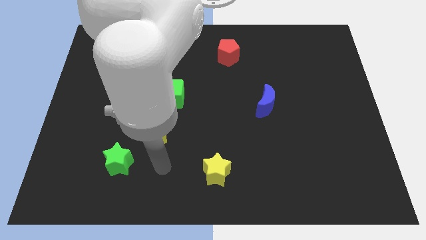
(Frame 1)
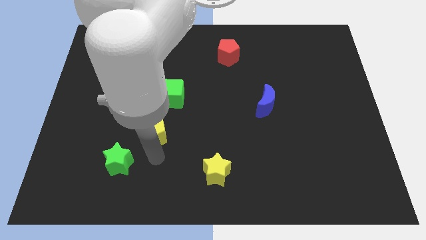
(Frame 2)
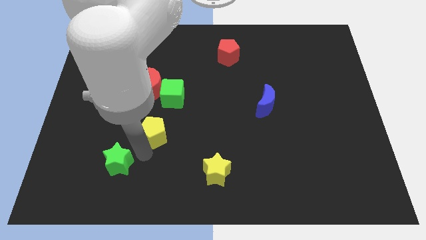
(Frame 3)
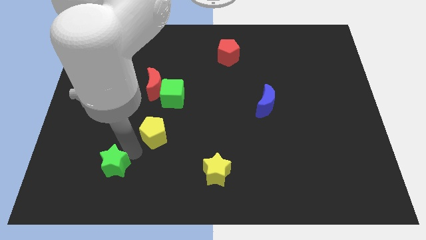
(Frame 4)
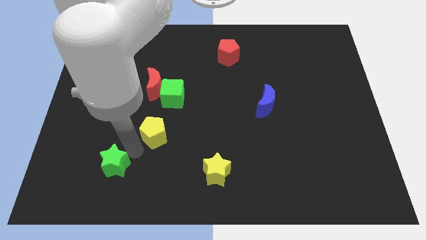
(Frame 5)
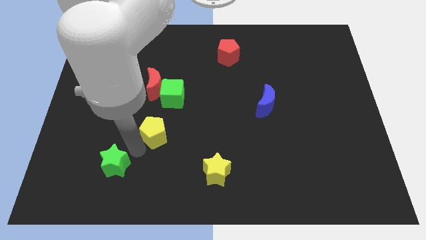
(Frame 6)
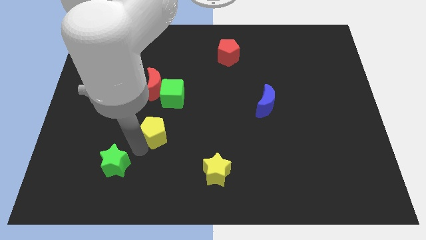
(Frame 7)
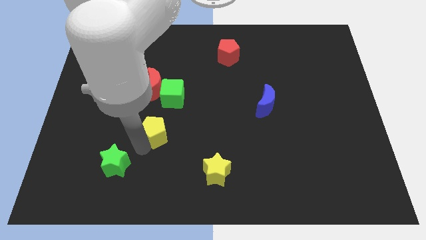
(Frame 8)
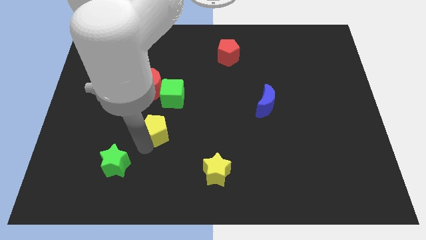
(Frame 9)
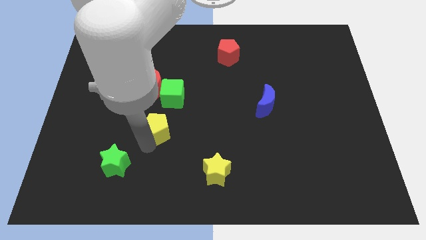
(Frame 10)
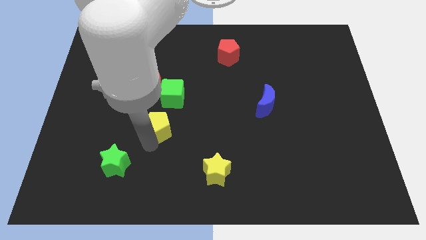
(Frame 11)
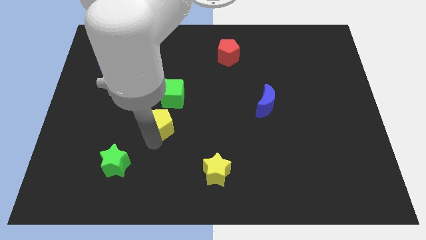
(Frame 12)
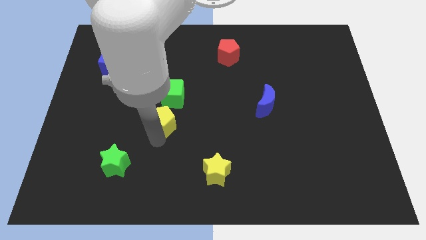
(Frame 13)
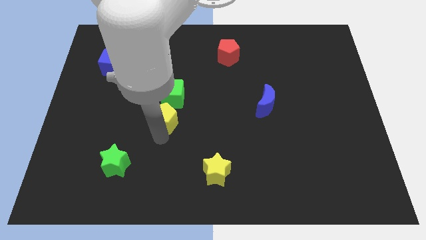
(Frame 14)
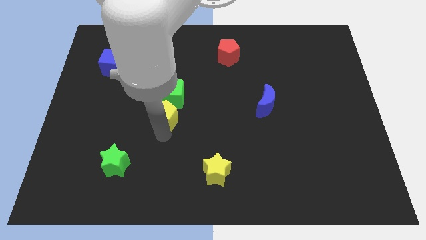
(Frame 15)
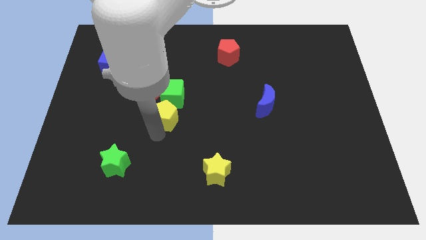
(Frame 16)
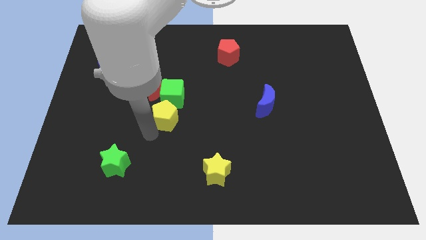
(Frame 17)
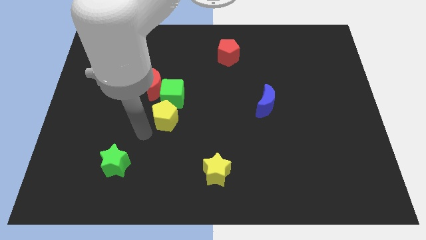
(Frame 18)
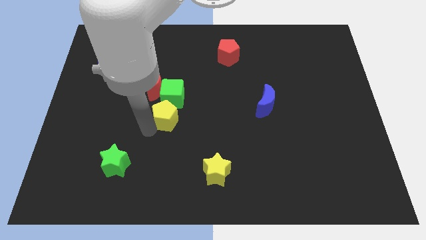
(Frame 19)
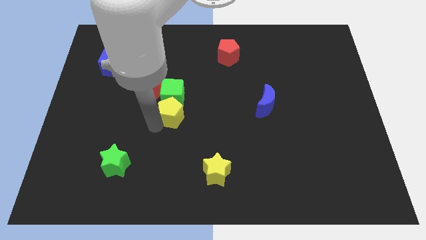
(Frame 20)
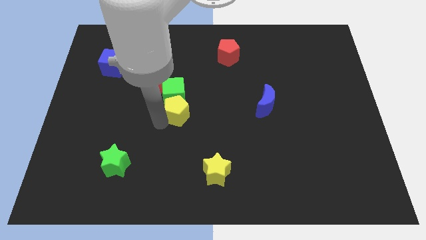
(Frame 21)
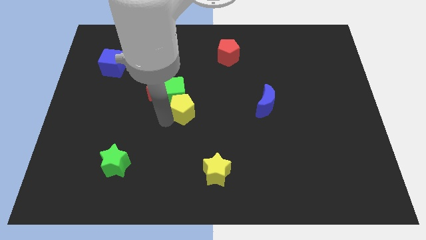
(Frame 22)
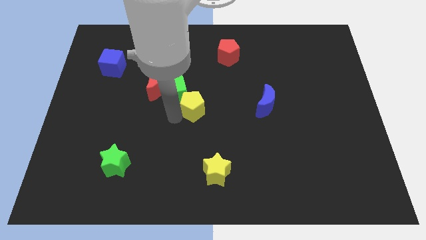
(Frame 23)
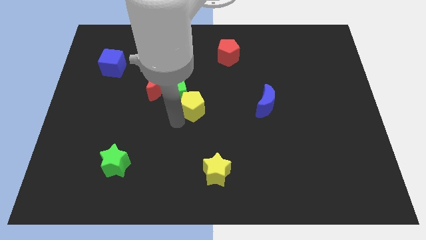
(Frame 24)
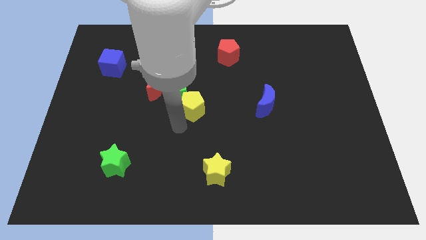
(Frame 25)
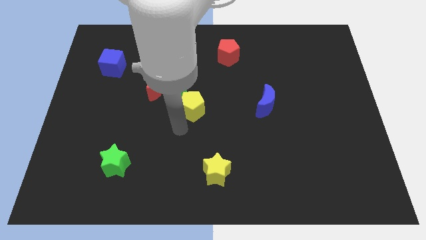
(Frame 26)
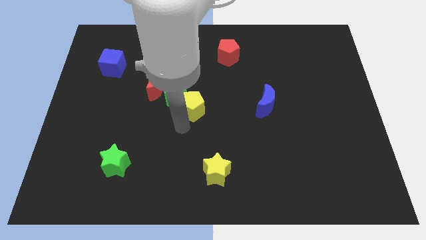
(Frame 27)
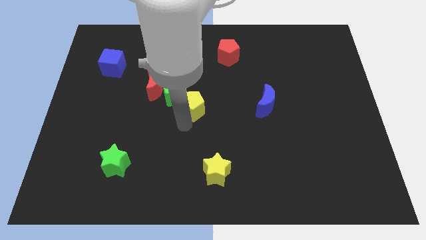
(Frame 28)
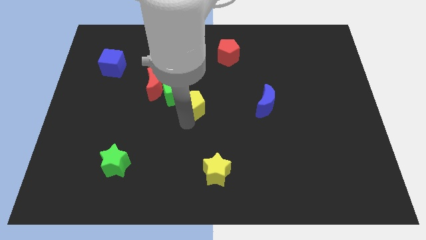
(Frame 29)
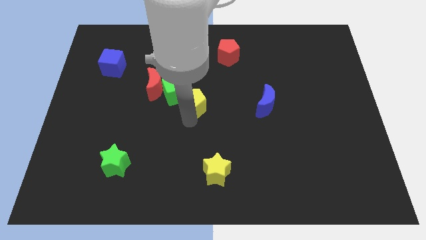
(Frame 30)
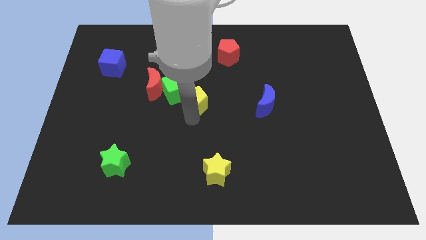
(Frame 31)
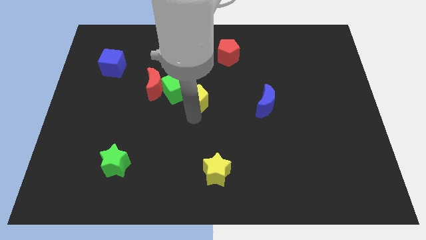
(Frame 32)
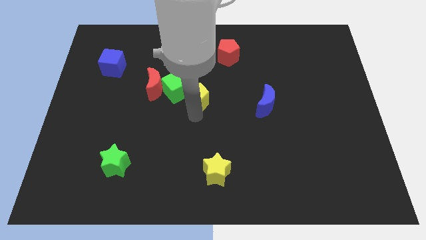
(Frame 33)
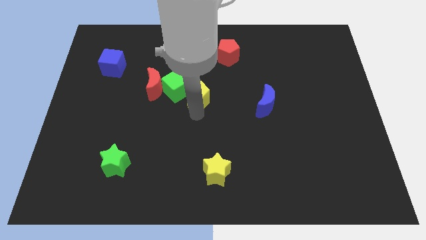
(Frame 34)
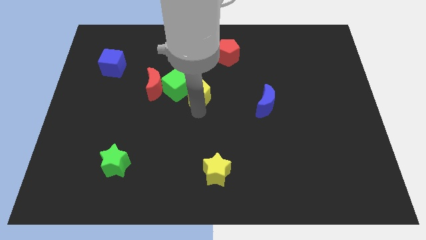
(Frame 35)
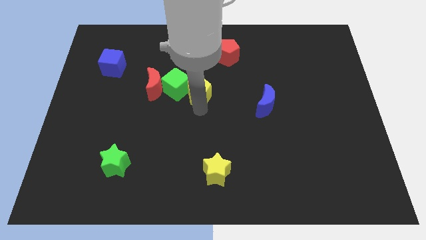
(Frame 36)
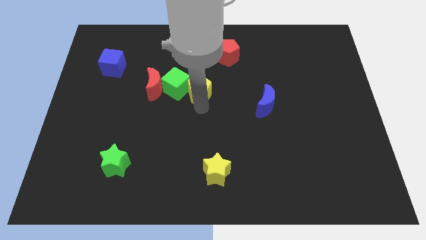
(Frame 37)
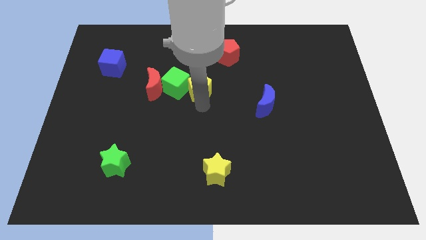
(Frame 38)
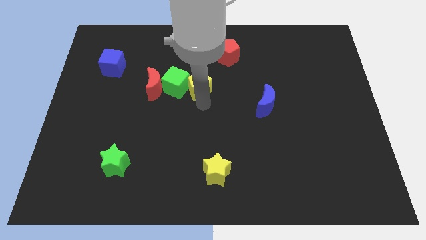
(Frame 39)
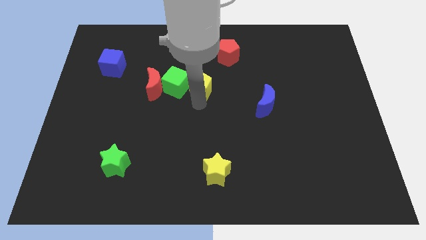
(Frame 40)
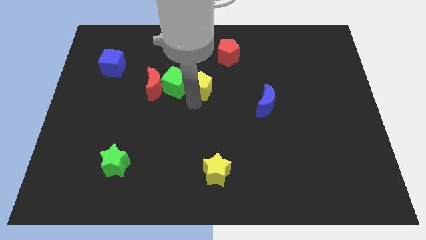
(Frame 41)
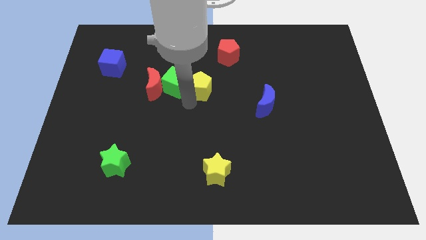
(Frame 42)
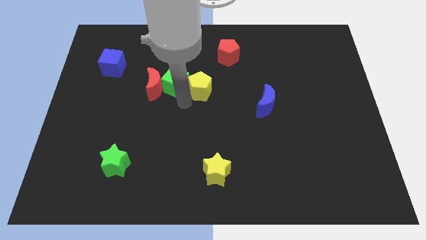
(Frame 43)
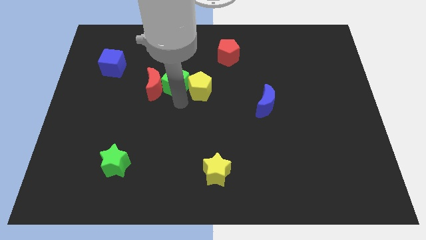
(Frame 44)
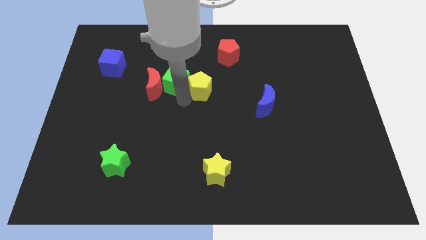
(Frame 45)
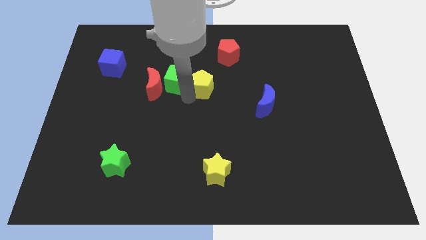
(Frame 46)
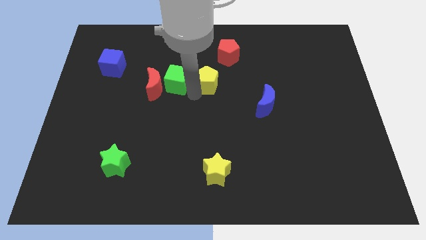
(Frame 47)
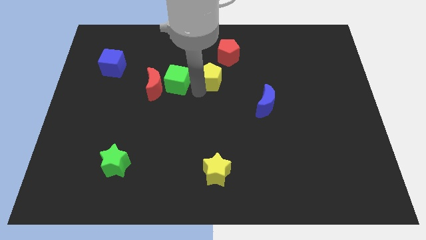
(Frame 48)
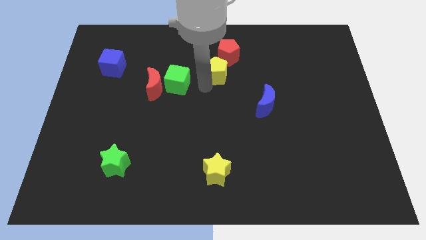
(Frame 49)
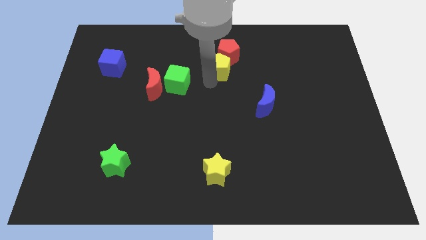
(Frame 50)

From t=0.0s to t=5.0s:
push the yellow pentagon to the red pentagon

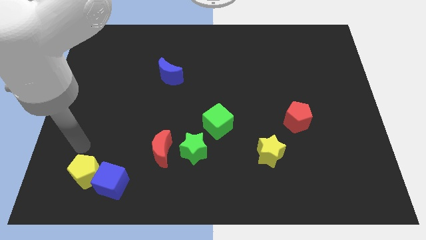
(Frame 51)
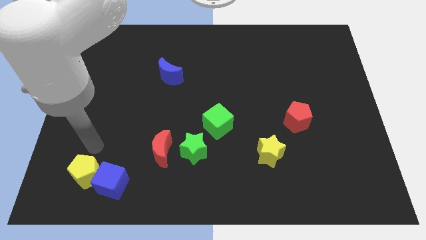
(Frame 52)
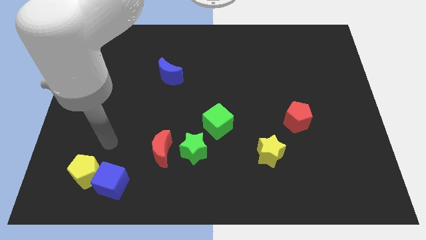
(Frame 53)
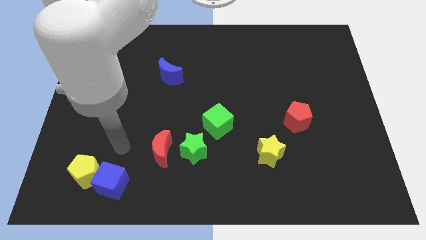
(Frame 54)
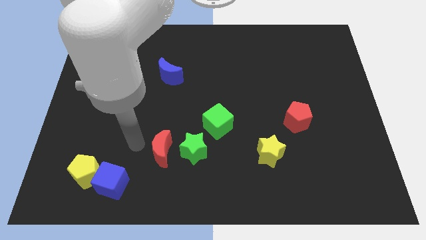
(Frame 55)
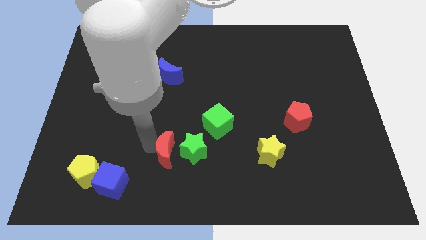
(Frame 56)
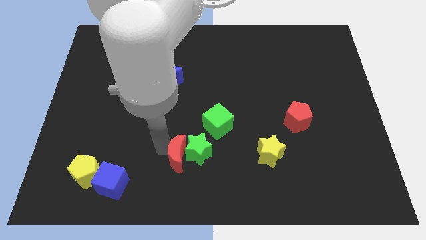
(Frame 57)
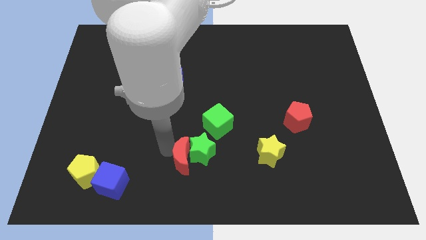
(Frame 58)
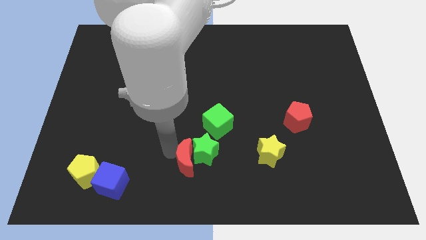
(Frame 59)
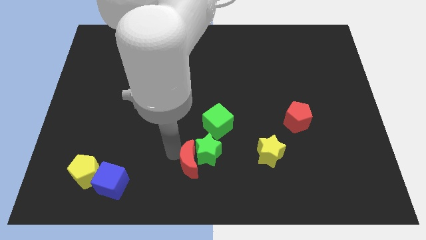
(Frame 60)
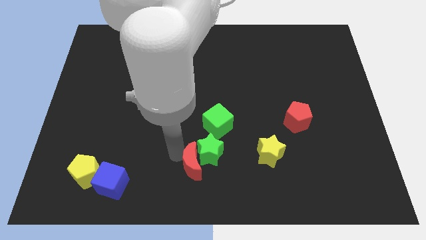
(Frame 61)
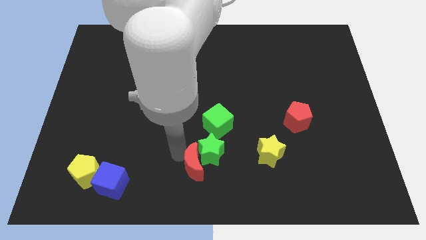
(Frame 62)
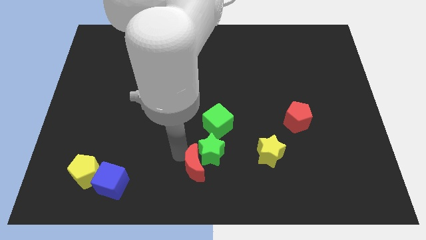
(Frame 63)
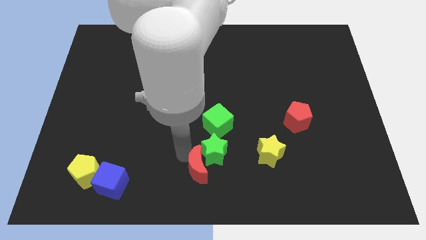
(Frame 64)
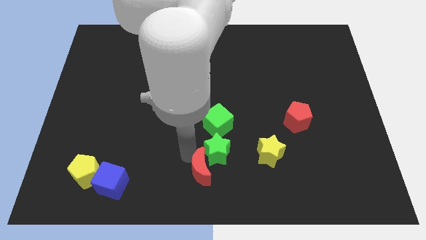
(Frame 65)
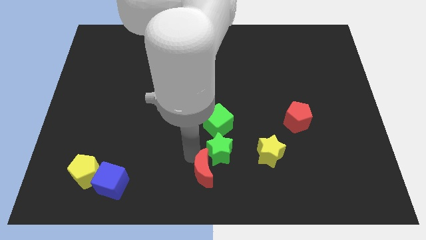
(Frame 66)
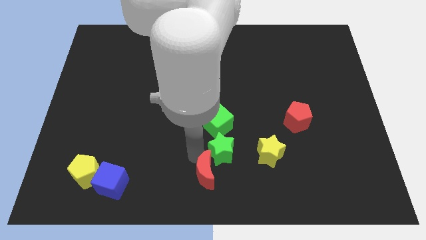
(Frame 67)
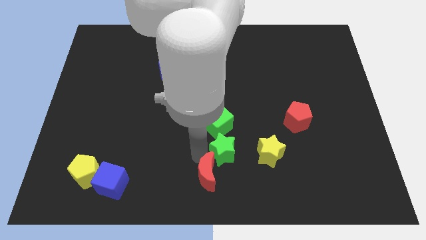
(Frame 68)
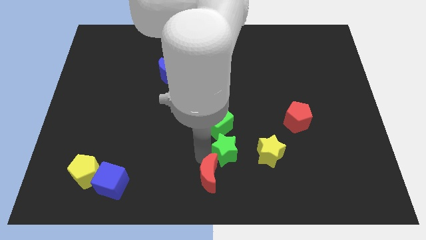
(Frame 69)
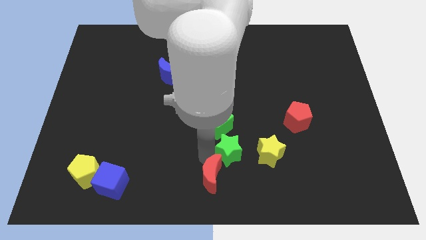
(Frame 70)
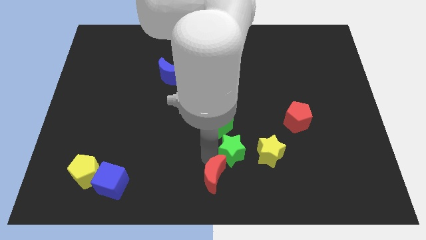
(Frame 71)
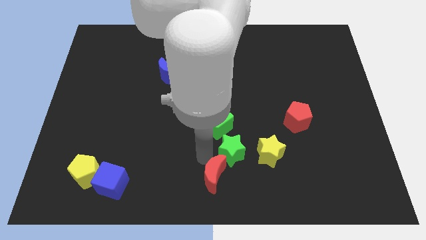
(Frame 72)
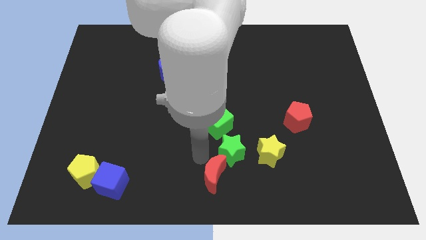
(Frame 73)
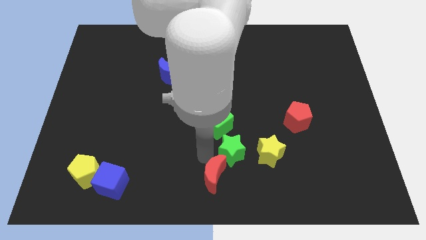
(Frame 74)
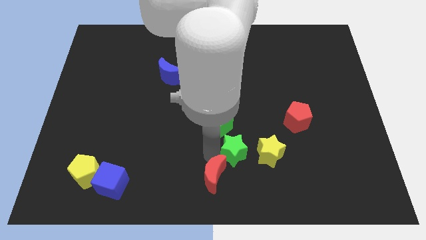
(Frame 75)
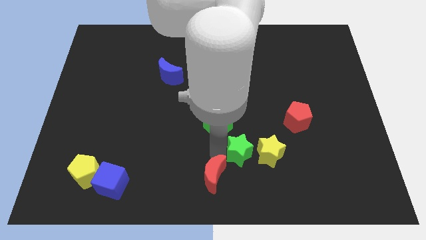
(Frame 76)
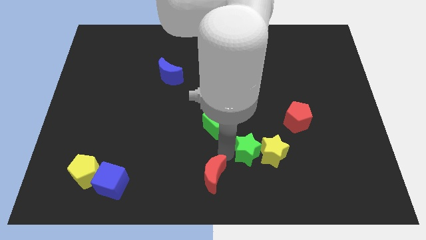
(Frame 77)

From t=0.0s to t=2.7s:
put the green star to the yellow star
